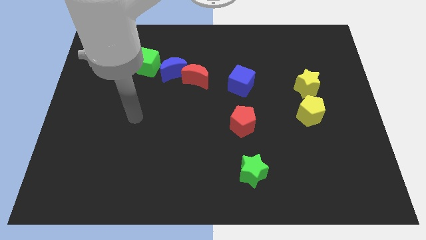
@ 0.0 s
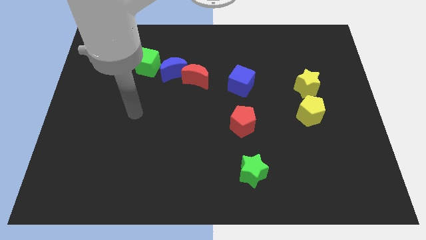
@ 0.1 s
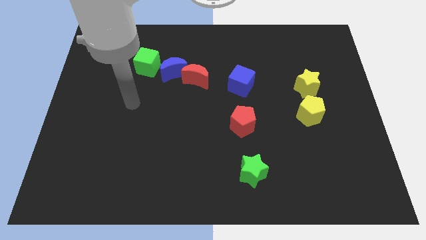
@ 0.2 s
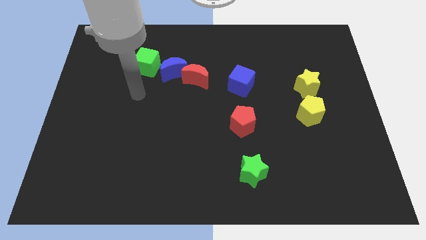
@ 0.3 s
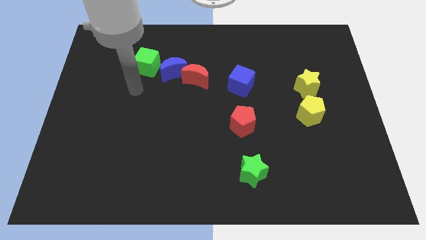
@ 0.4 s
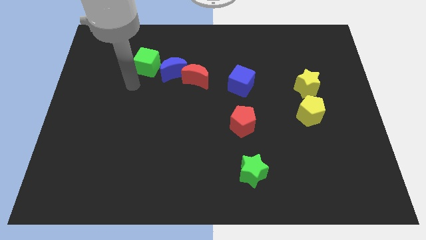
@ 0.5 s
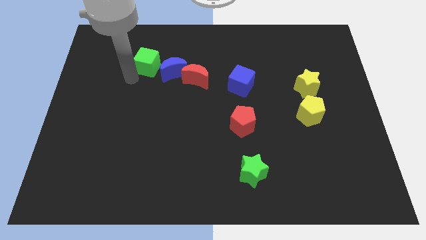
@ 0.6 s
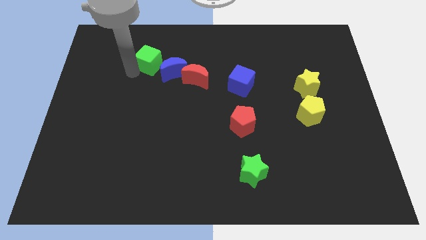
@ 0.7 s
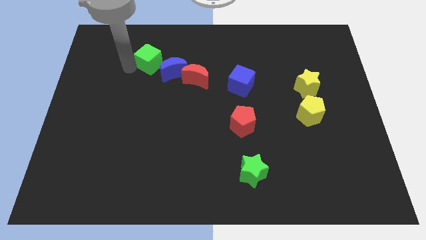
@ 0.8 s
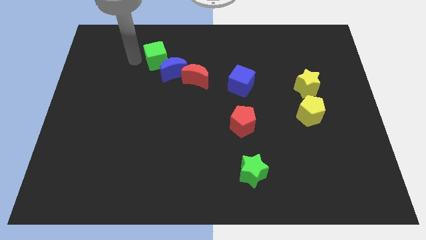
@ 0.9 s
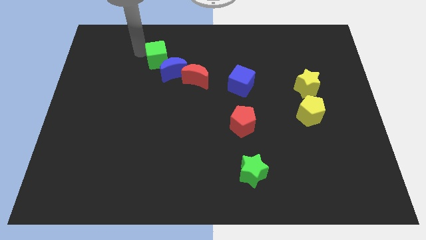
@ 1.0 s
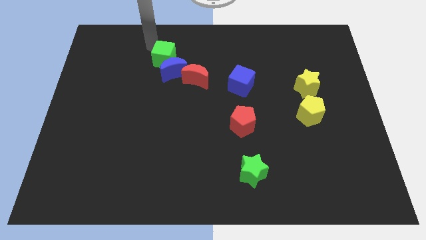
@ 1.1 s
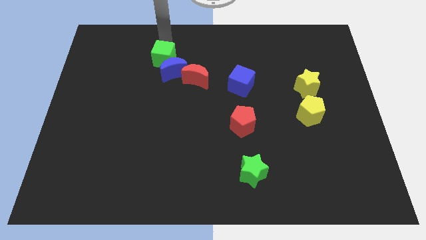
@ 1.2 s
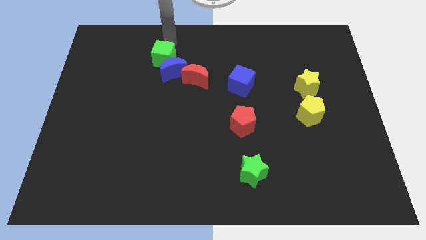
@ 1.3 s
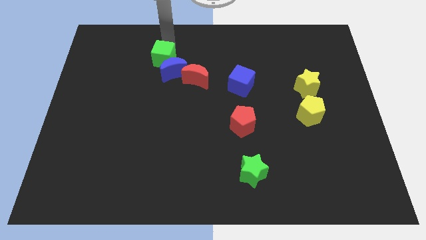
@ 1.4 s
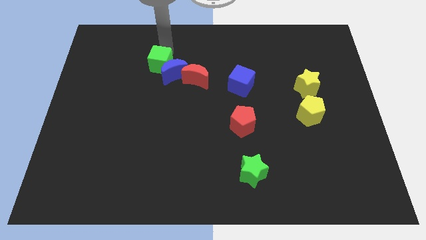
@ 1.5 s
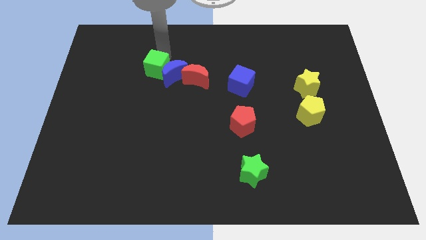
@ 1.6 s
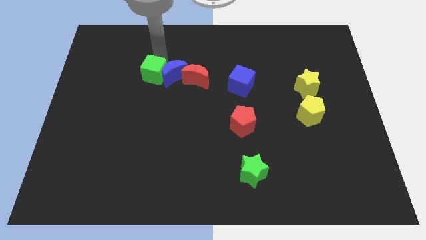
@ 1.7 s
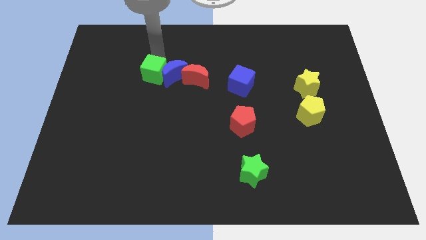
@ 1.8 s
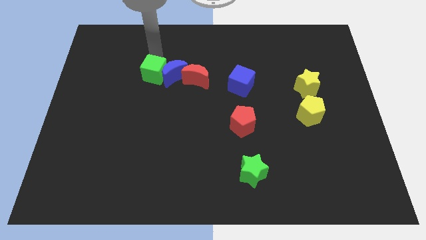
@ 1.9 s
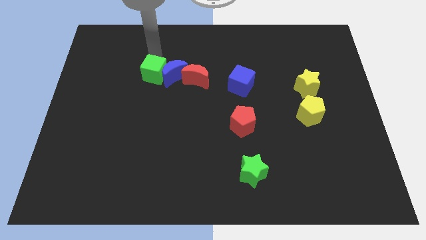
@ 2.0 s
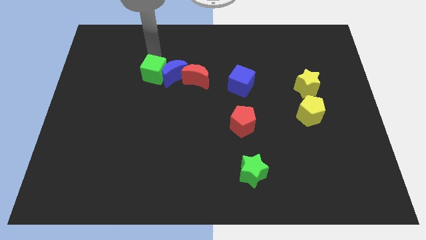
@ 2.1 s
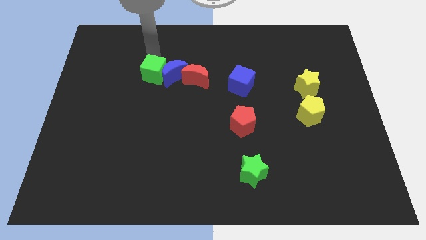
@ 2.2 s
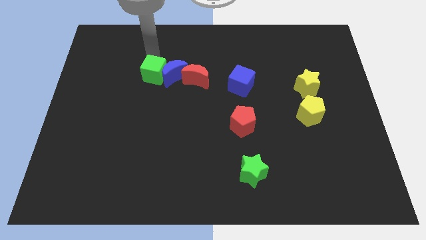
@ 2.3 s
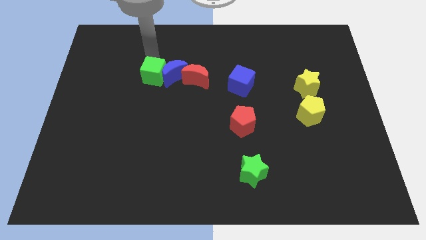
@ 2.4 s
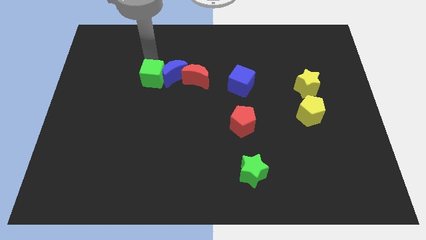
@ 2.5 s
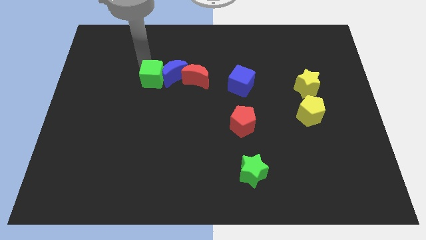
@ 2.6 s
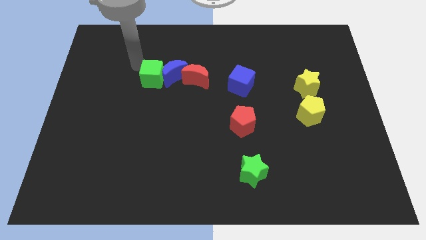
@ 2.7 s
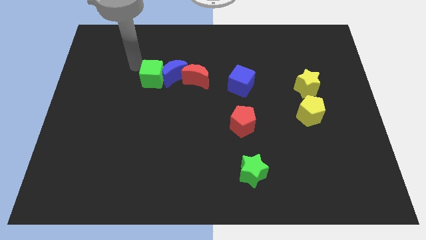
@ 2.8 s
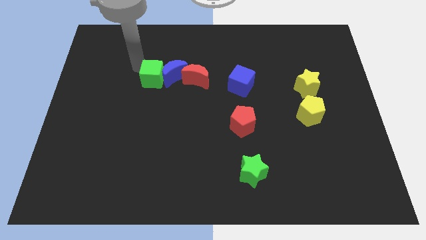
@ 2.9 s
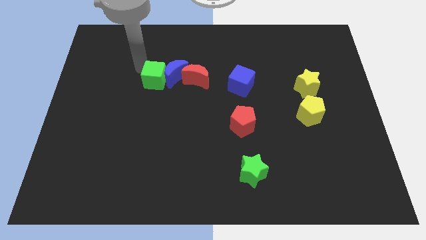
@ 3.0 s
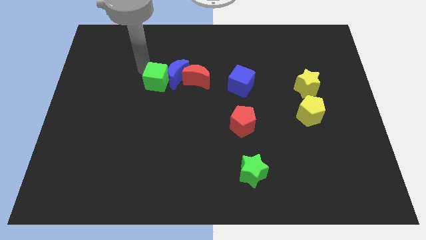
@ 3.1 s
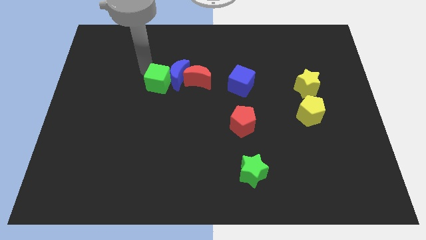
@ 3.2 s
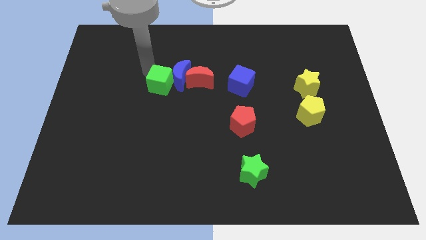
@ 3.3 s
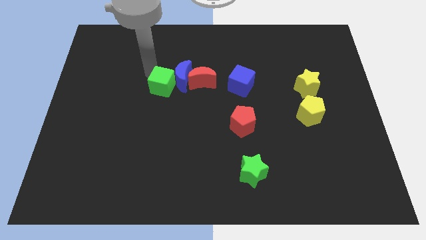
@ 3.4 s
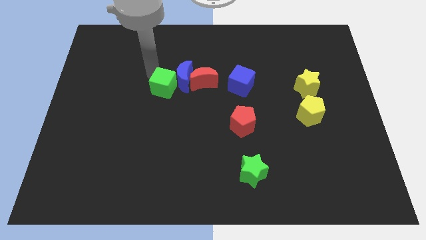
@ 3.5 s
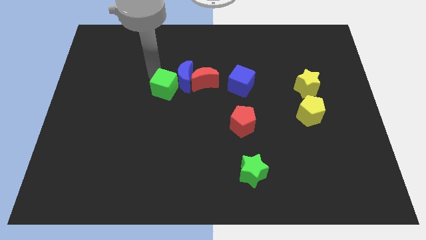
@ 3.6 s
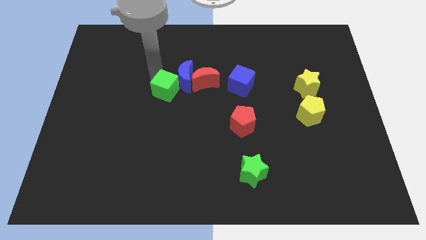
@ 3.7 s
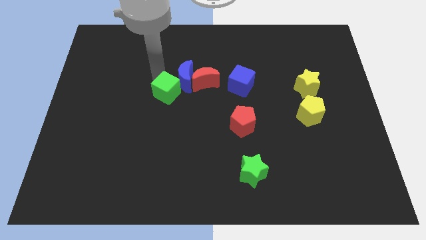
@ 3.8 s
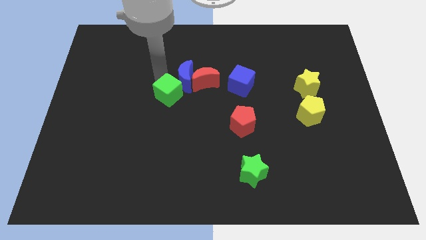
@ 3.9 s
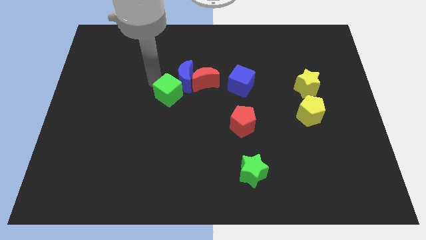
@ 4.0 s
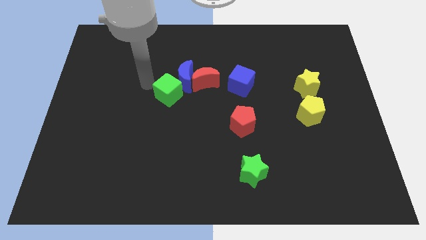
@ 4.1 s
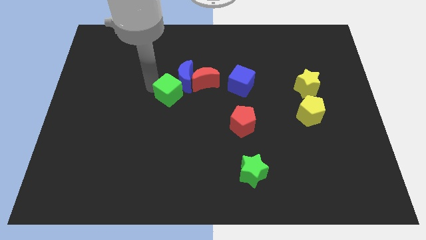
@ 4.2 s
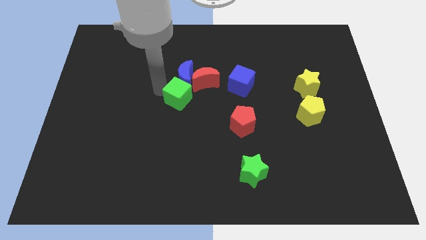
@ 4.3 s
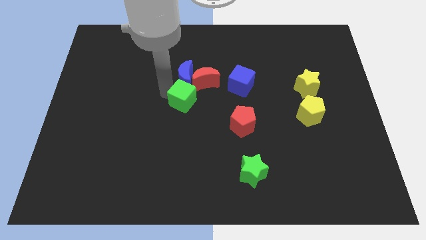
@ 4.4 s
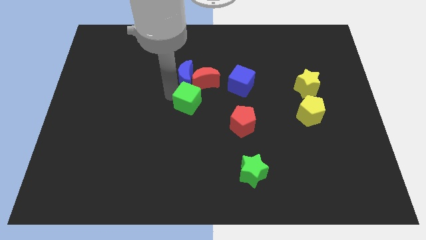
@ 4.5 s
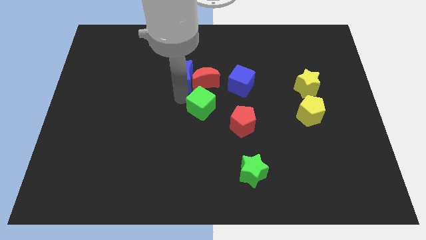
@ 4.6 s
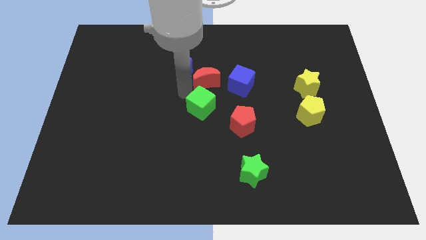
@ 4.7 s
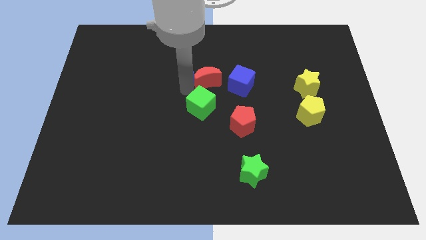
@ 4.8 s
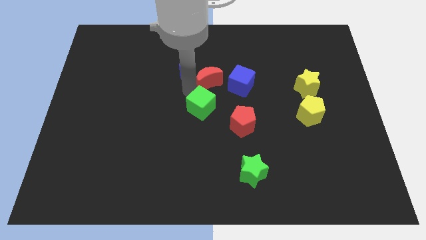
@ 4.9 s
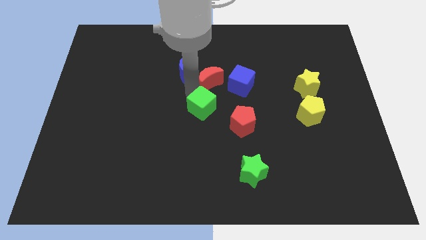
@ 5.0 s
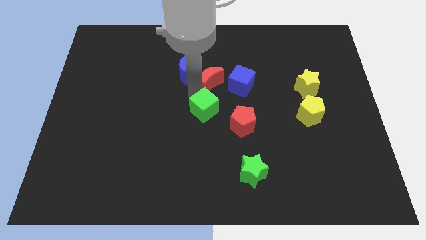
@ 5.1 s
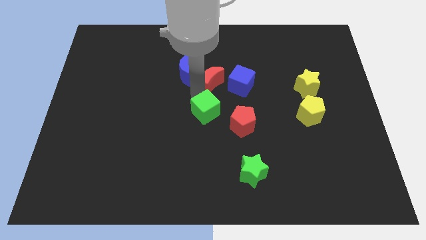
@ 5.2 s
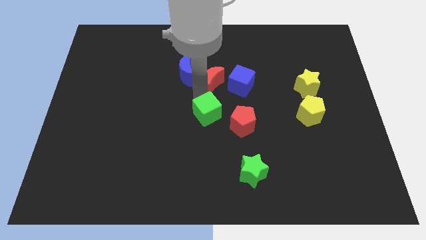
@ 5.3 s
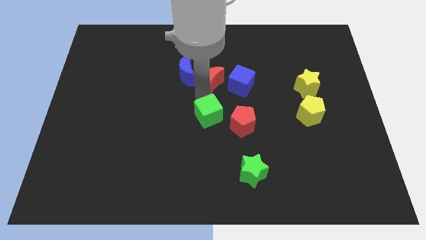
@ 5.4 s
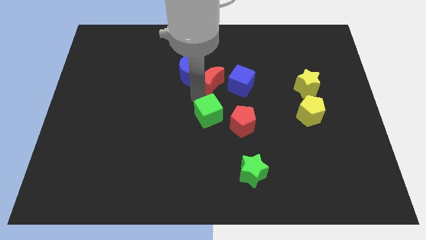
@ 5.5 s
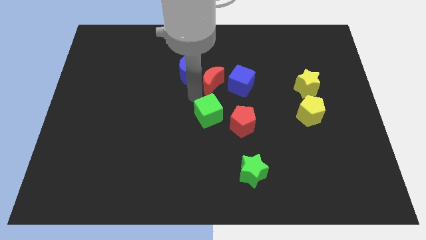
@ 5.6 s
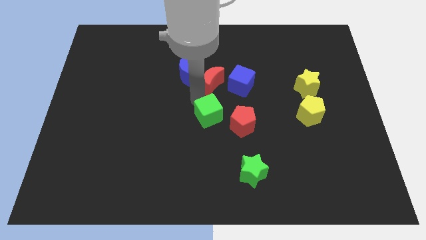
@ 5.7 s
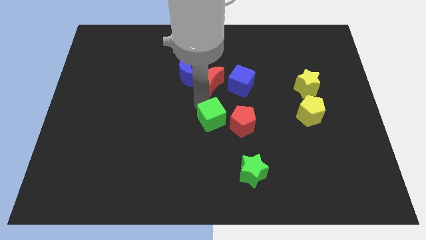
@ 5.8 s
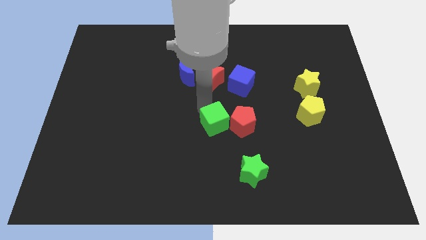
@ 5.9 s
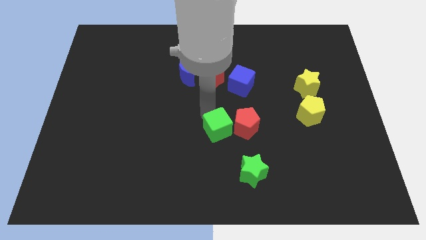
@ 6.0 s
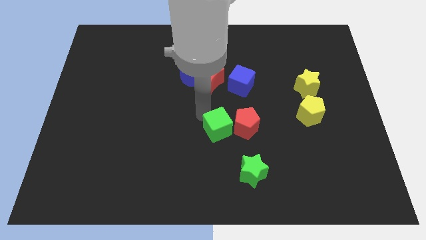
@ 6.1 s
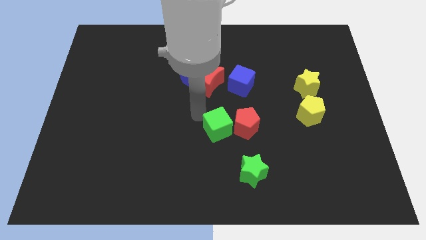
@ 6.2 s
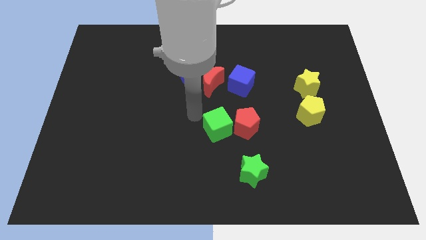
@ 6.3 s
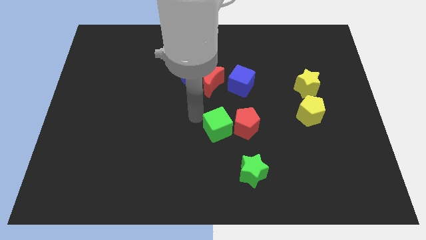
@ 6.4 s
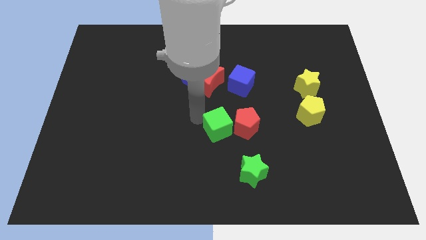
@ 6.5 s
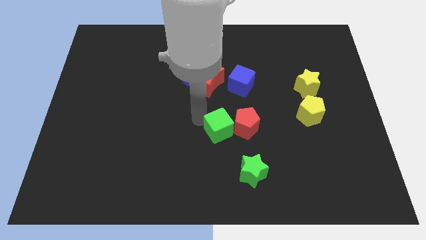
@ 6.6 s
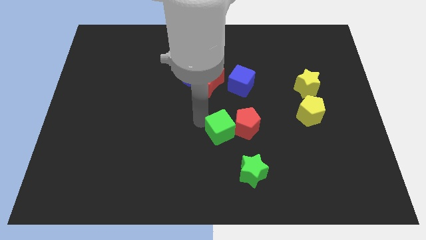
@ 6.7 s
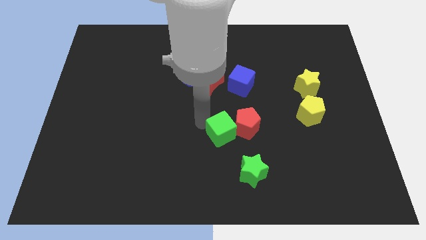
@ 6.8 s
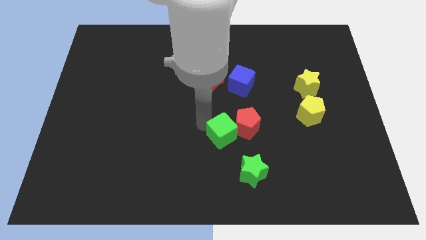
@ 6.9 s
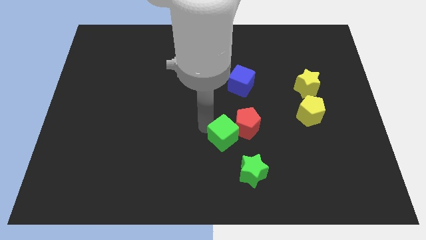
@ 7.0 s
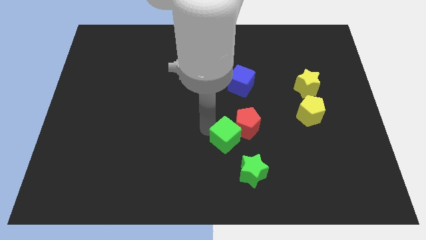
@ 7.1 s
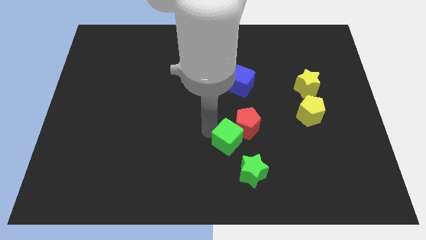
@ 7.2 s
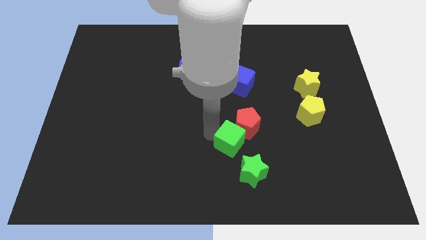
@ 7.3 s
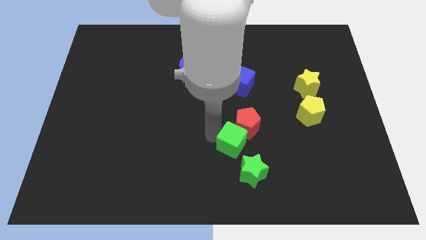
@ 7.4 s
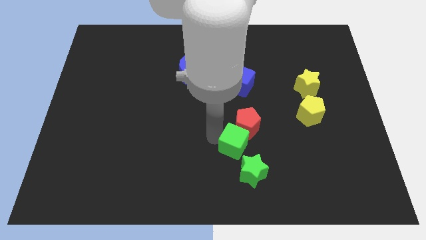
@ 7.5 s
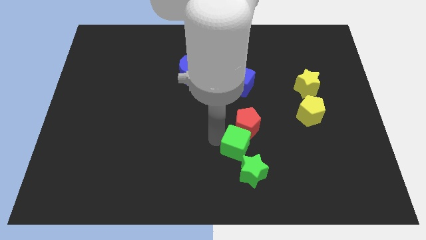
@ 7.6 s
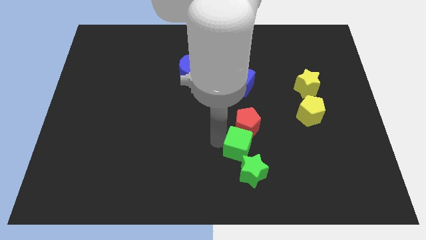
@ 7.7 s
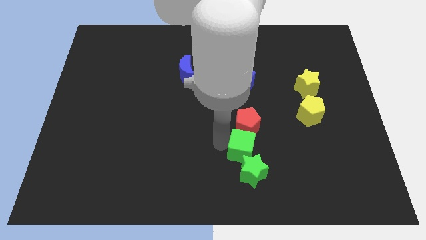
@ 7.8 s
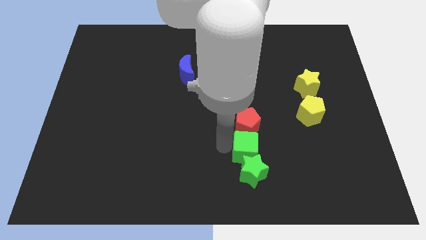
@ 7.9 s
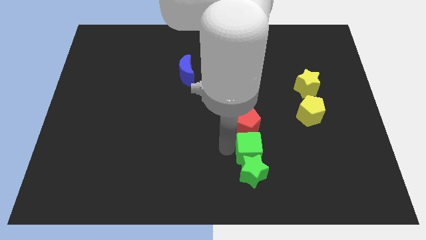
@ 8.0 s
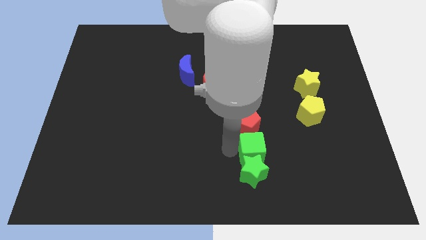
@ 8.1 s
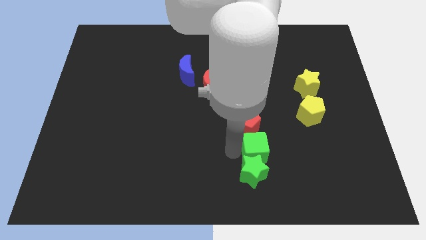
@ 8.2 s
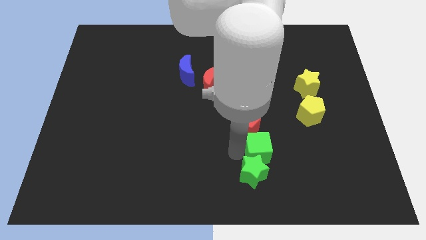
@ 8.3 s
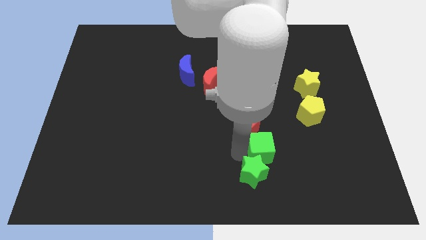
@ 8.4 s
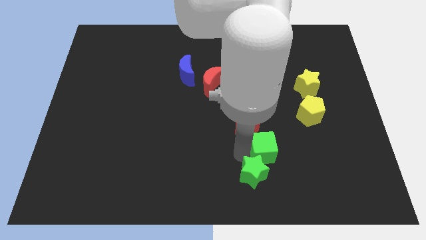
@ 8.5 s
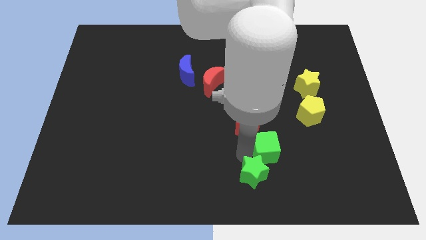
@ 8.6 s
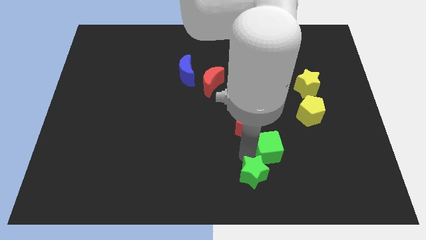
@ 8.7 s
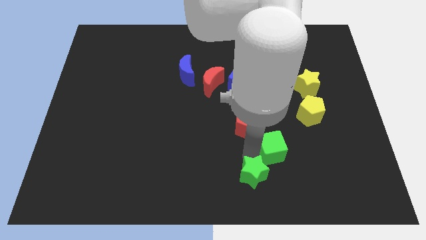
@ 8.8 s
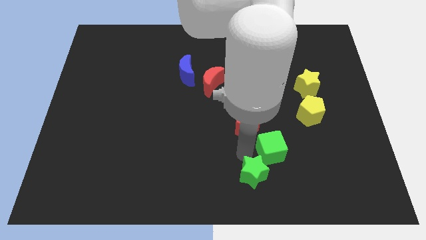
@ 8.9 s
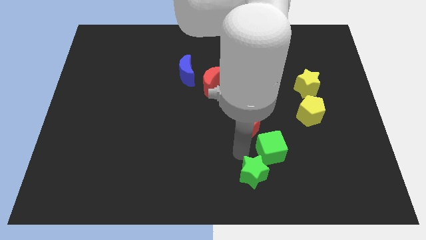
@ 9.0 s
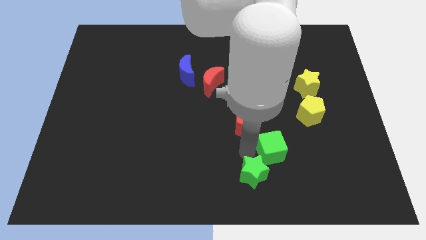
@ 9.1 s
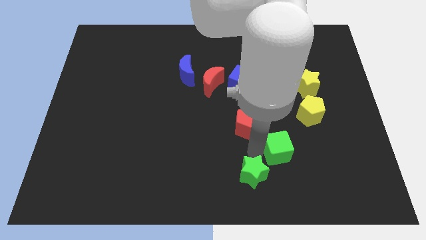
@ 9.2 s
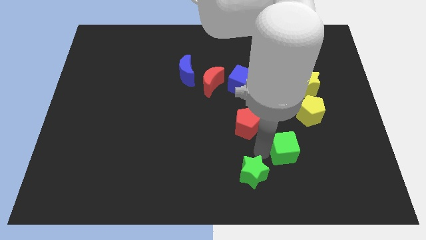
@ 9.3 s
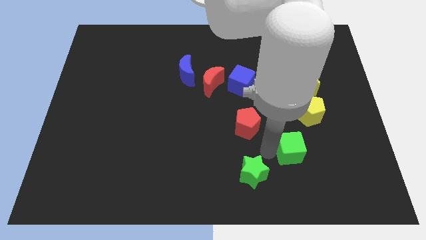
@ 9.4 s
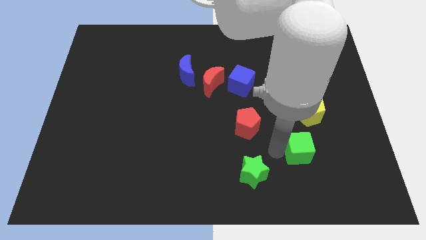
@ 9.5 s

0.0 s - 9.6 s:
slide the green cube below the yellow pentagon
